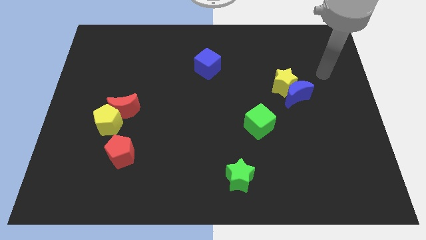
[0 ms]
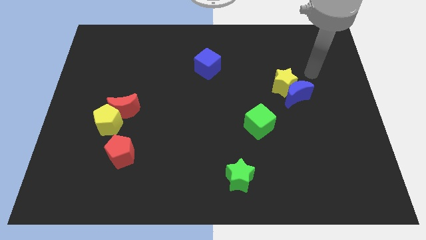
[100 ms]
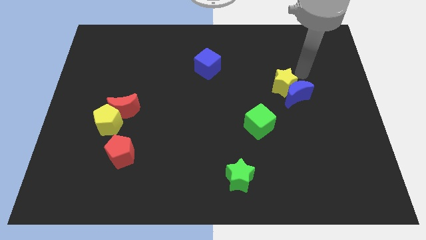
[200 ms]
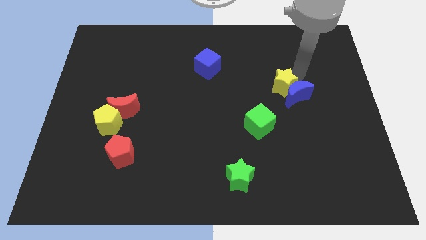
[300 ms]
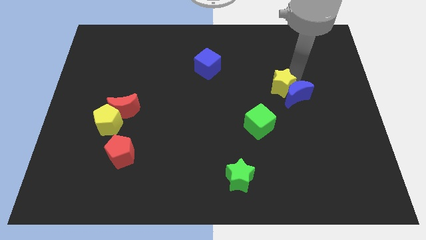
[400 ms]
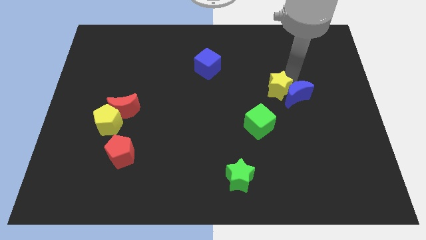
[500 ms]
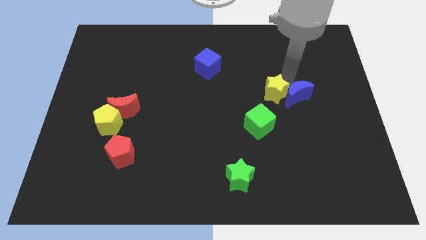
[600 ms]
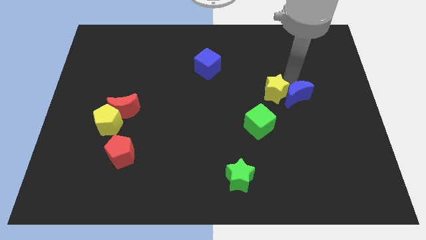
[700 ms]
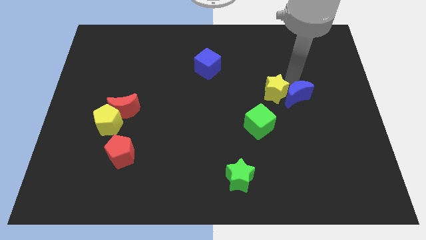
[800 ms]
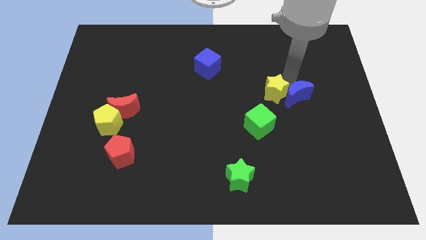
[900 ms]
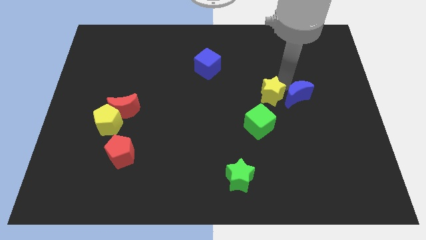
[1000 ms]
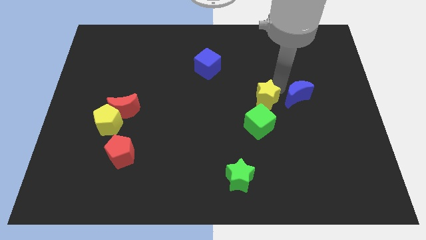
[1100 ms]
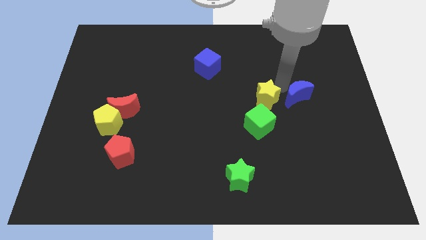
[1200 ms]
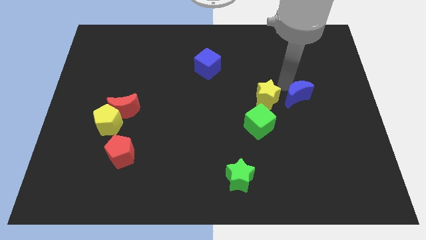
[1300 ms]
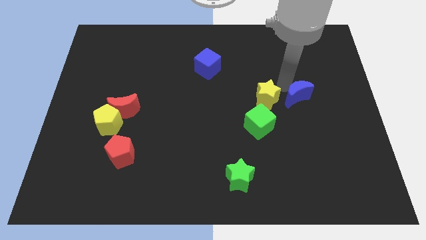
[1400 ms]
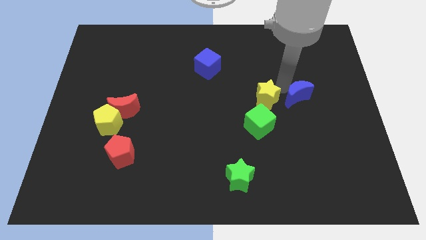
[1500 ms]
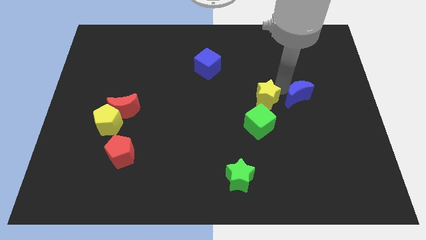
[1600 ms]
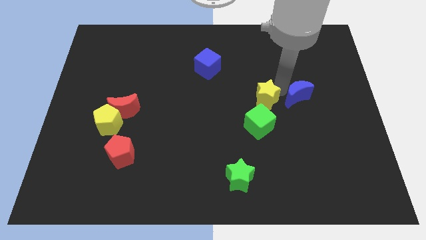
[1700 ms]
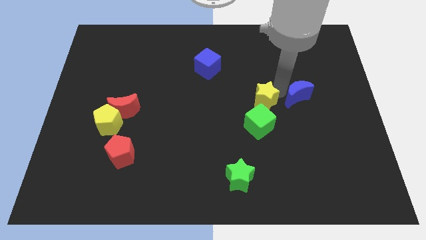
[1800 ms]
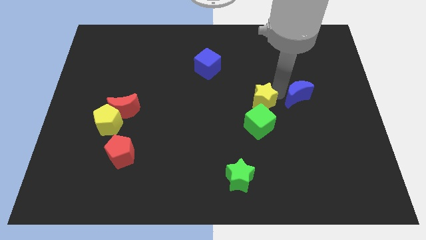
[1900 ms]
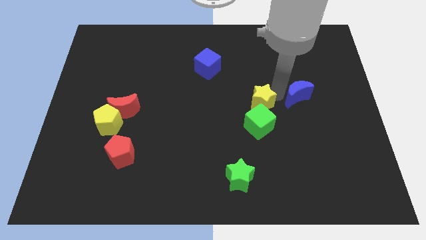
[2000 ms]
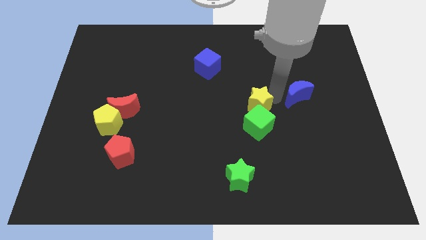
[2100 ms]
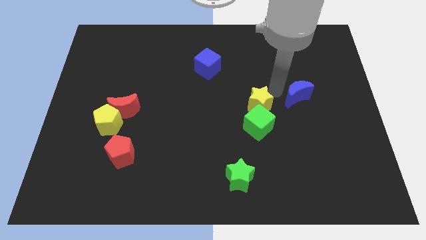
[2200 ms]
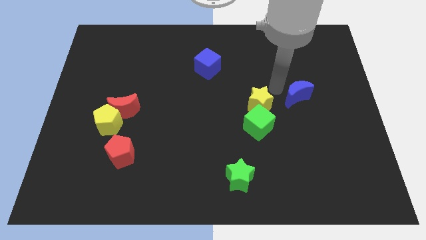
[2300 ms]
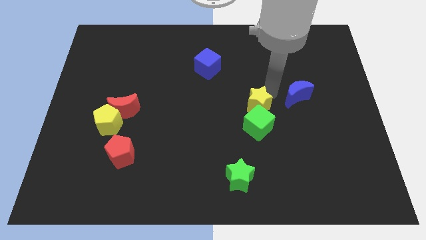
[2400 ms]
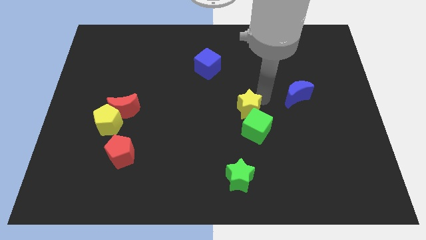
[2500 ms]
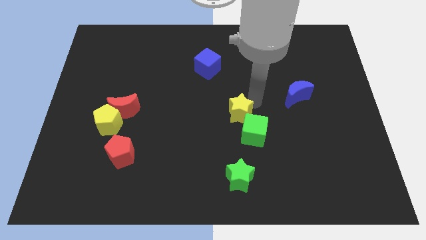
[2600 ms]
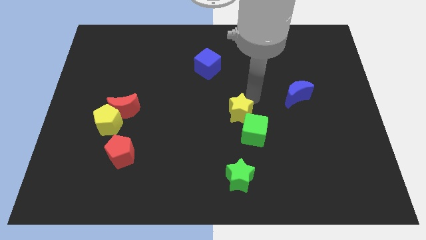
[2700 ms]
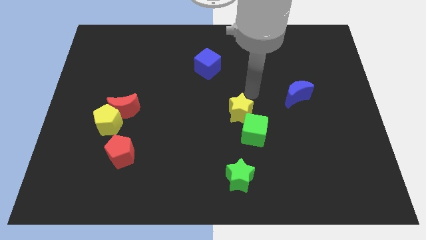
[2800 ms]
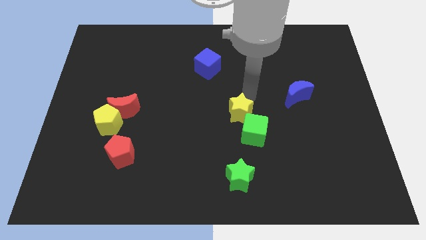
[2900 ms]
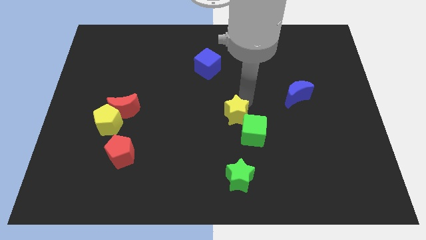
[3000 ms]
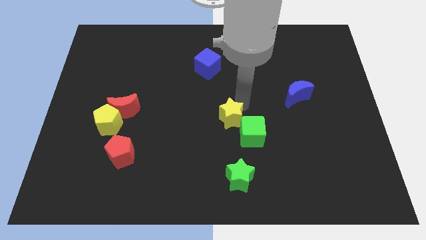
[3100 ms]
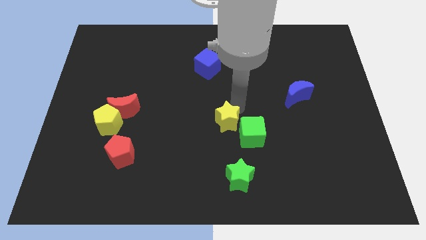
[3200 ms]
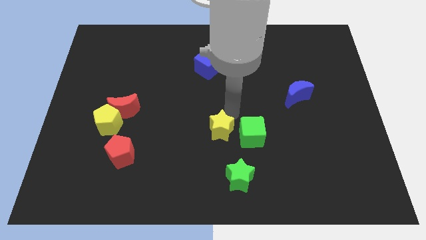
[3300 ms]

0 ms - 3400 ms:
slide the yellow star downwards and then to the left

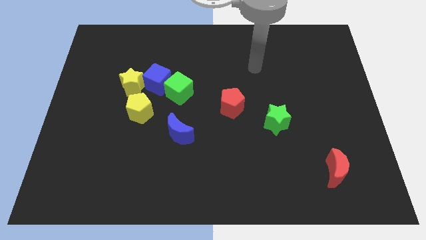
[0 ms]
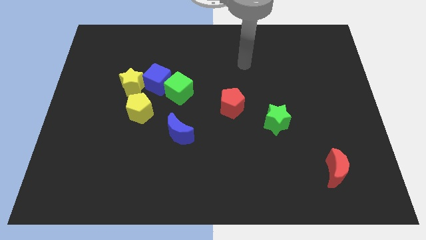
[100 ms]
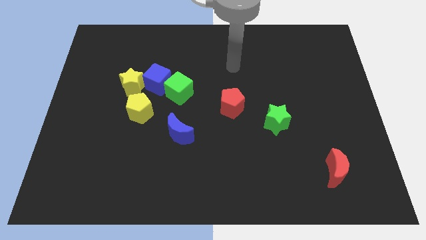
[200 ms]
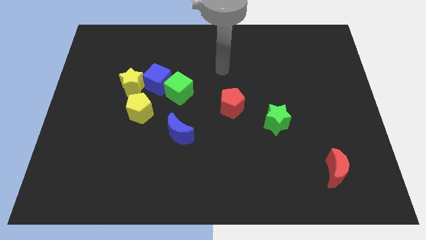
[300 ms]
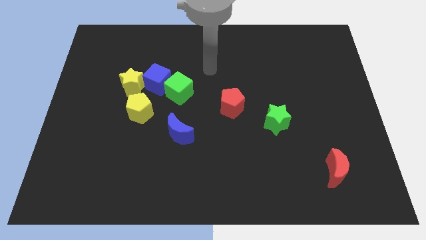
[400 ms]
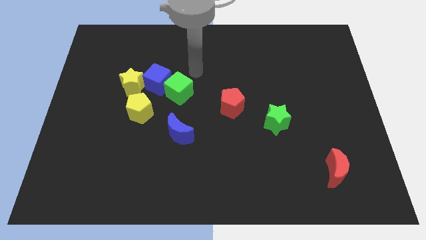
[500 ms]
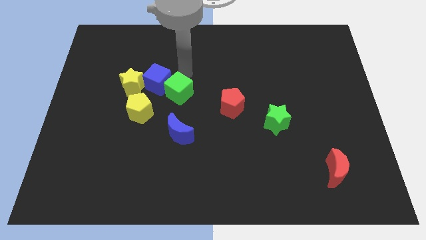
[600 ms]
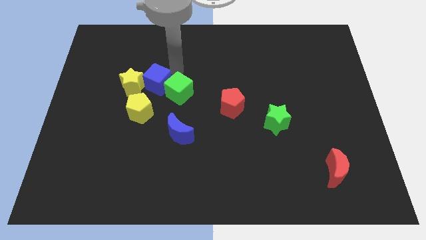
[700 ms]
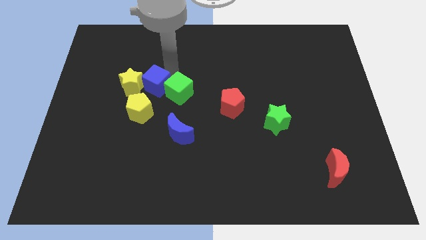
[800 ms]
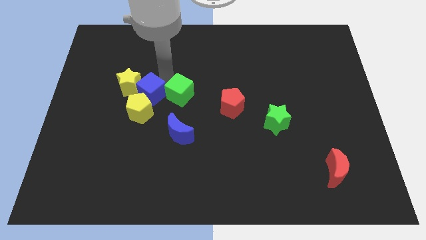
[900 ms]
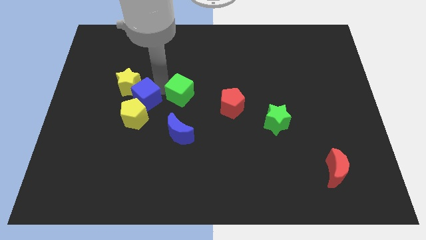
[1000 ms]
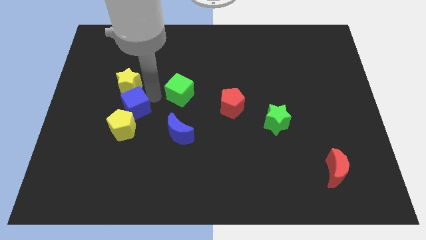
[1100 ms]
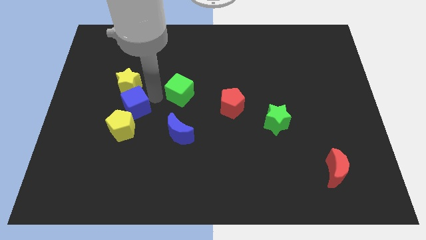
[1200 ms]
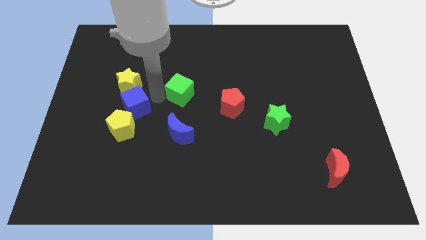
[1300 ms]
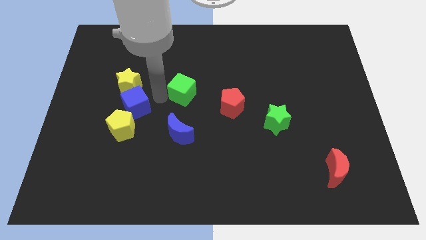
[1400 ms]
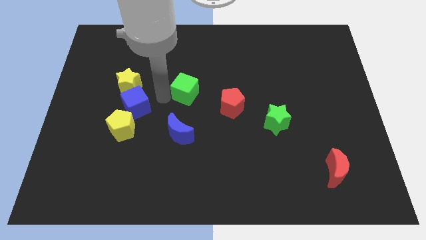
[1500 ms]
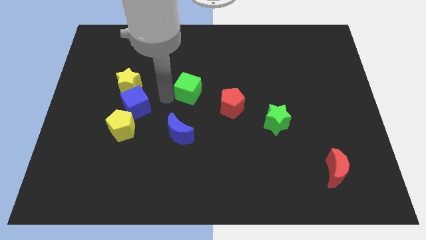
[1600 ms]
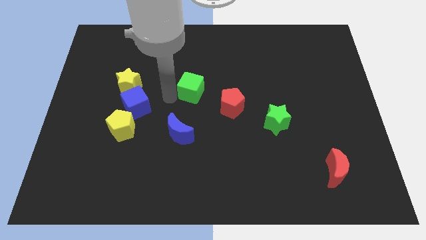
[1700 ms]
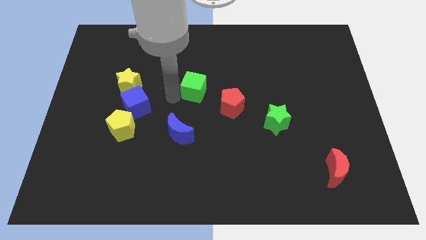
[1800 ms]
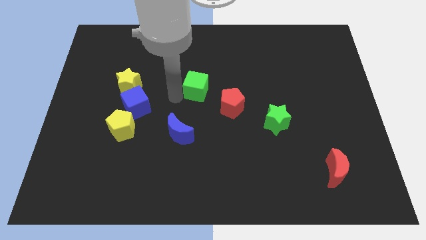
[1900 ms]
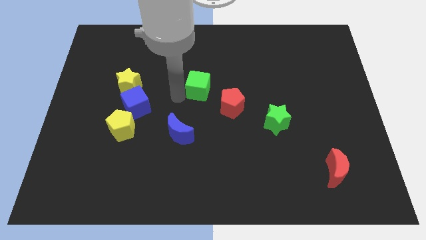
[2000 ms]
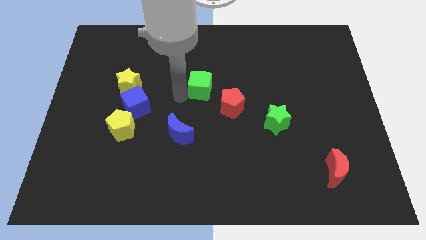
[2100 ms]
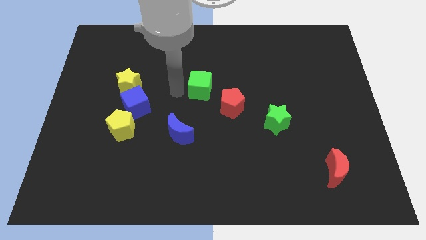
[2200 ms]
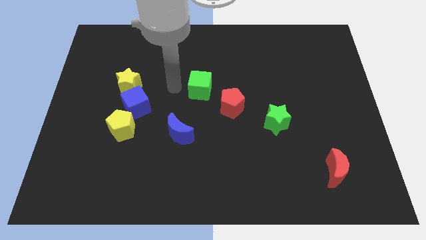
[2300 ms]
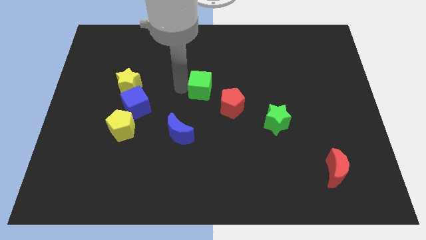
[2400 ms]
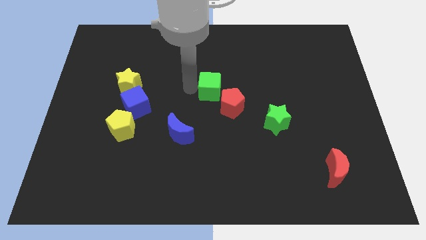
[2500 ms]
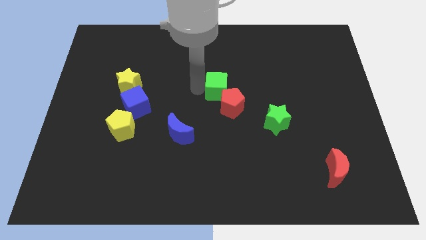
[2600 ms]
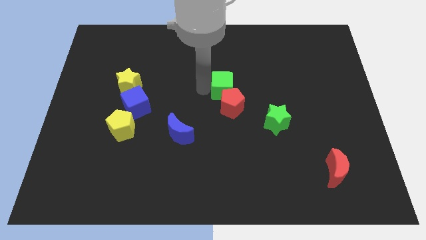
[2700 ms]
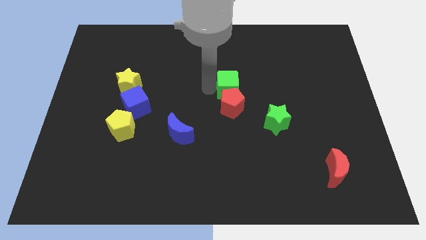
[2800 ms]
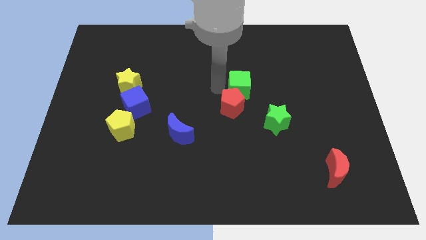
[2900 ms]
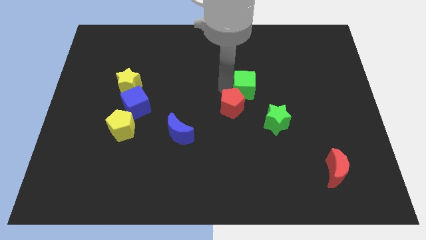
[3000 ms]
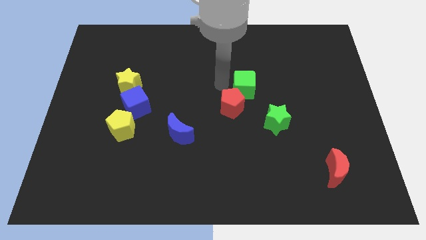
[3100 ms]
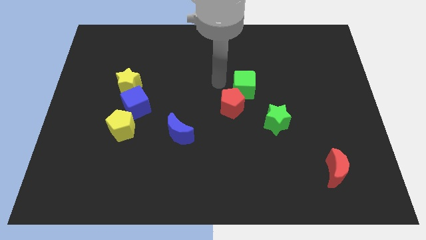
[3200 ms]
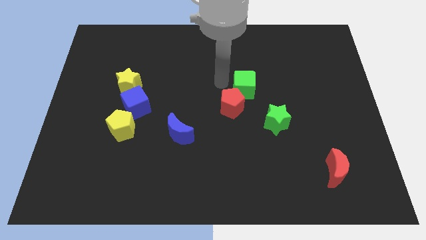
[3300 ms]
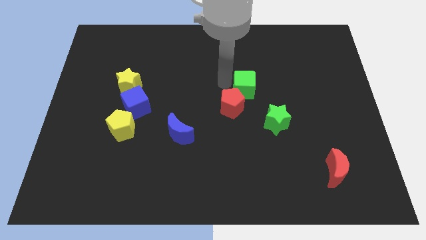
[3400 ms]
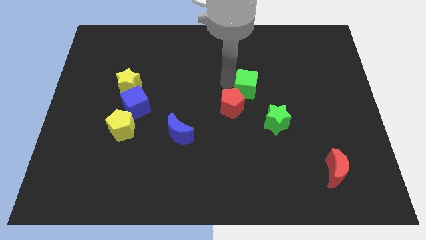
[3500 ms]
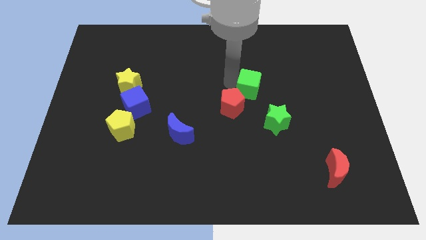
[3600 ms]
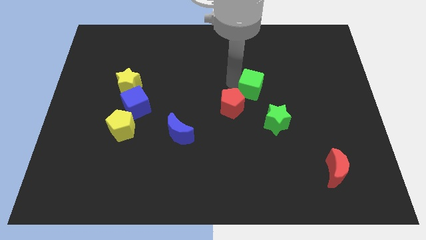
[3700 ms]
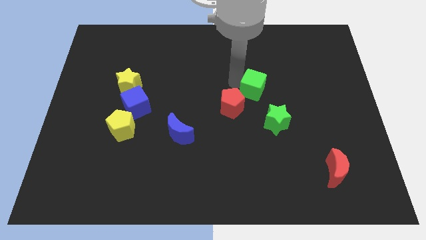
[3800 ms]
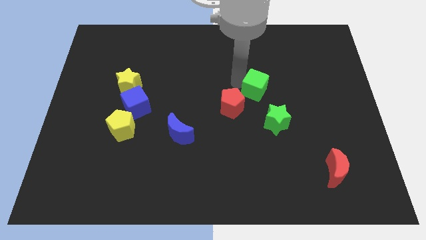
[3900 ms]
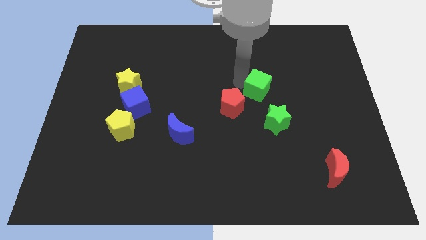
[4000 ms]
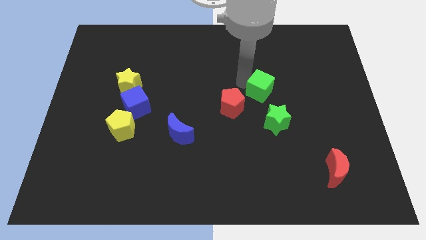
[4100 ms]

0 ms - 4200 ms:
push the green cube right

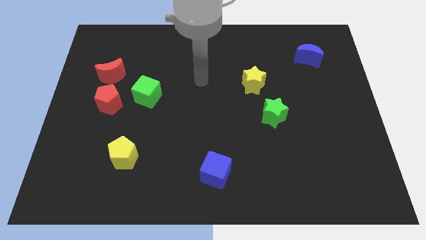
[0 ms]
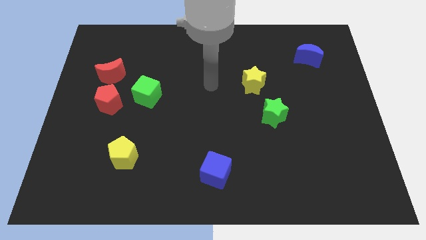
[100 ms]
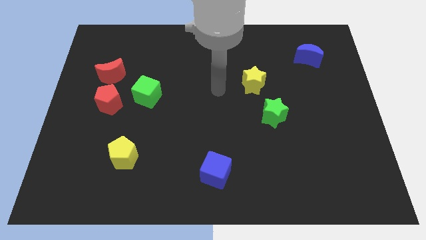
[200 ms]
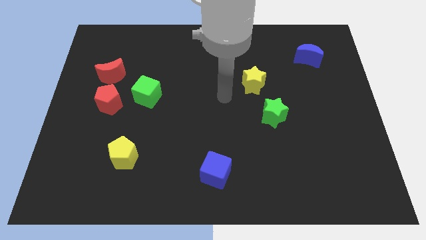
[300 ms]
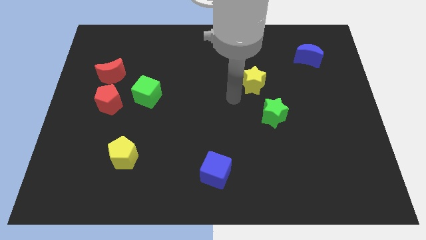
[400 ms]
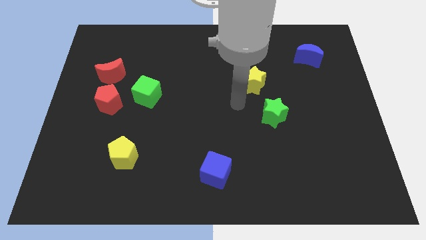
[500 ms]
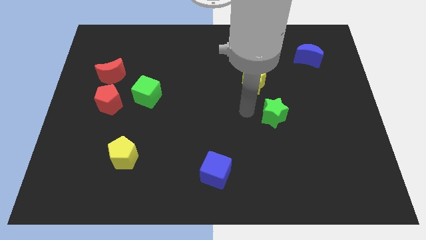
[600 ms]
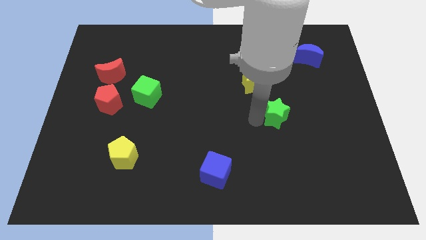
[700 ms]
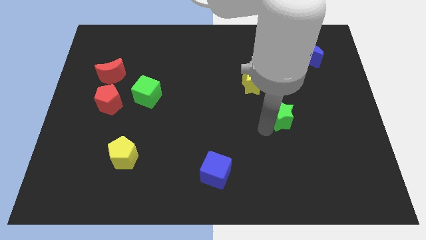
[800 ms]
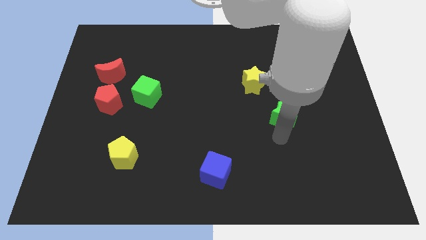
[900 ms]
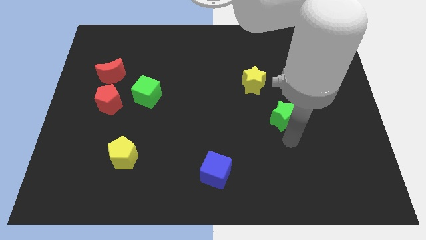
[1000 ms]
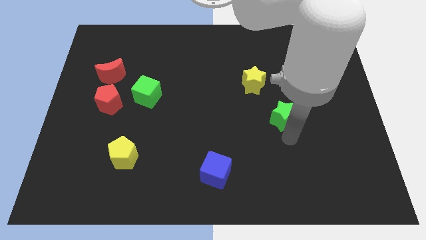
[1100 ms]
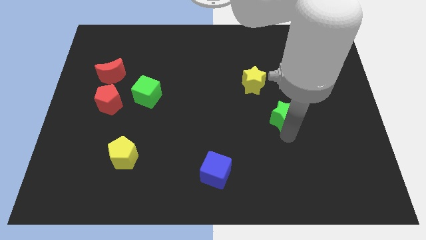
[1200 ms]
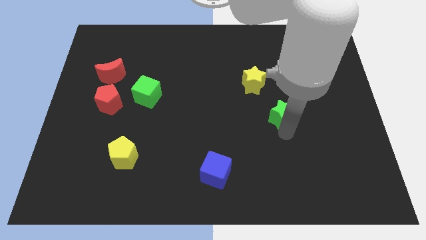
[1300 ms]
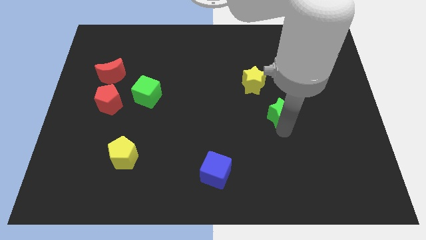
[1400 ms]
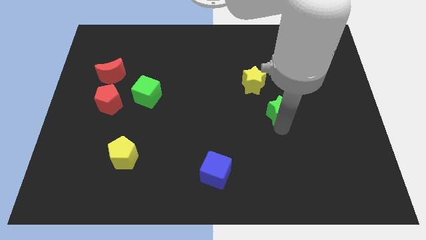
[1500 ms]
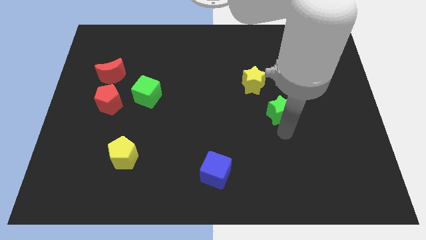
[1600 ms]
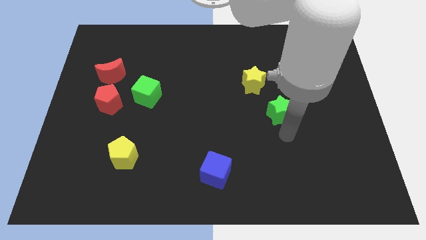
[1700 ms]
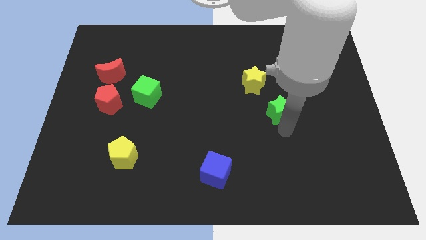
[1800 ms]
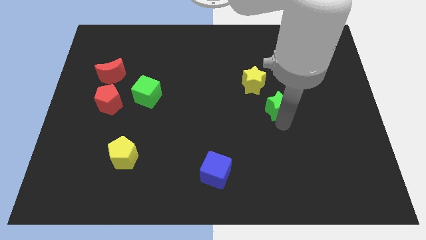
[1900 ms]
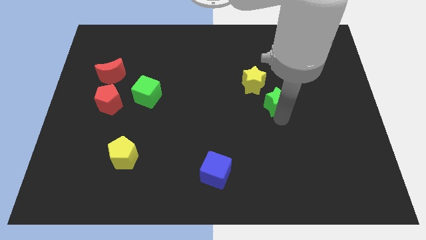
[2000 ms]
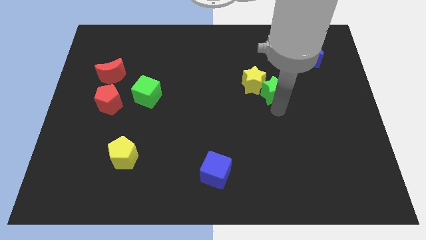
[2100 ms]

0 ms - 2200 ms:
move the green star somewhat up
